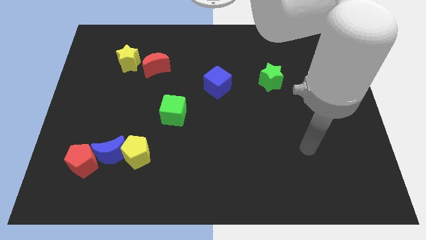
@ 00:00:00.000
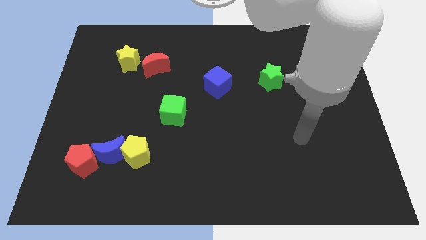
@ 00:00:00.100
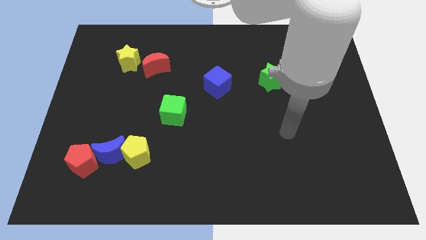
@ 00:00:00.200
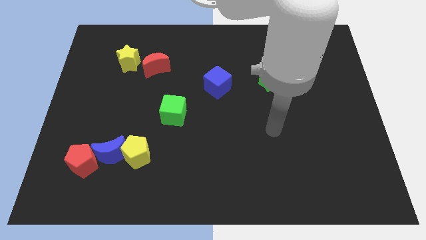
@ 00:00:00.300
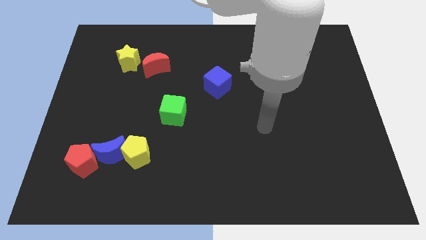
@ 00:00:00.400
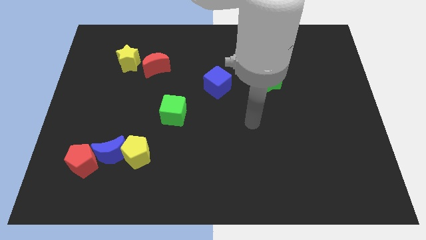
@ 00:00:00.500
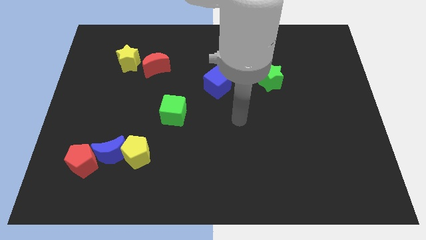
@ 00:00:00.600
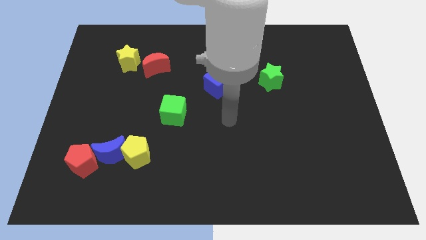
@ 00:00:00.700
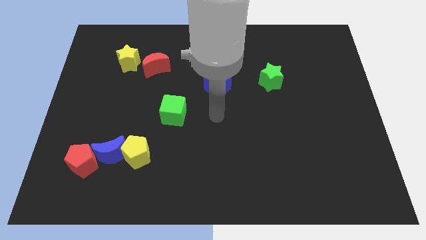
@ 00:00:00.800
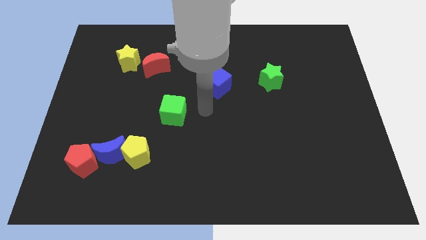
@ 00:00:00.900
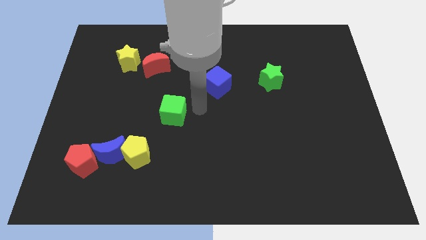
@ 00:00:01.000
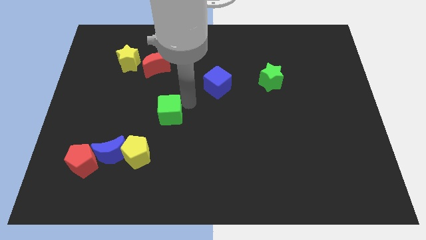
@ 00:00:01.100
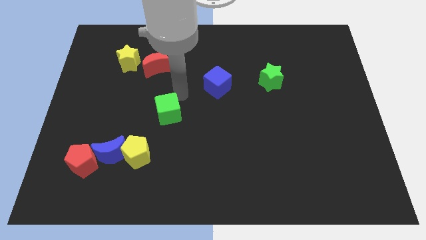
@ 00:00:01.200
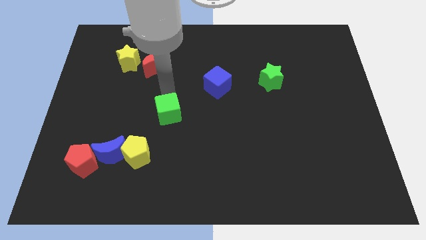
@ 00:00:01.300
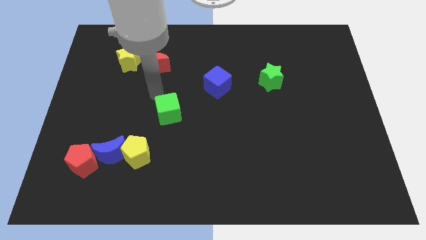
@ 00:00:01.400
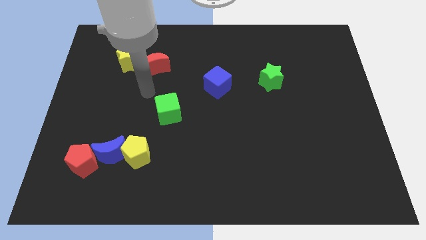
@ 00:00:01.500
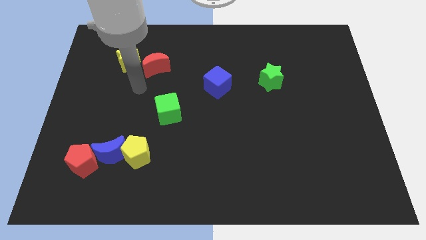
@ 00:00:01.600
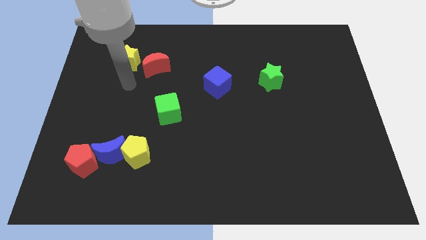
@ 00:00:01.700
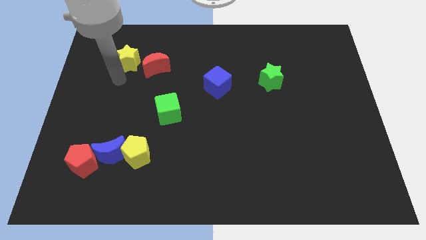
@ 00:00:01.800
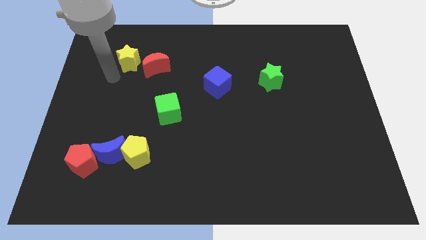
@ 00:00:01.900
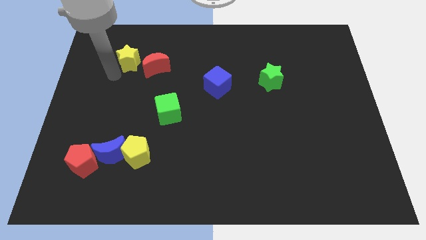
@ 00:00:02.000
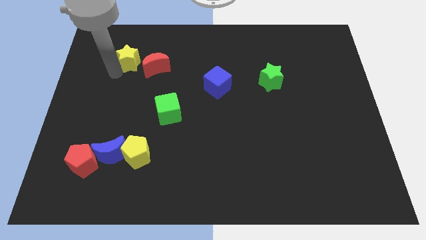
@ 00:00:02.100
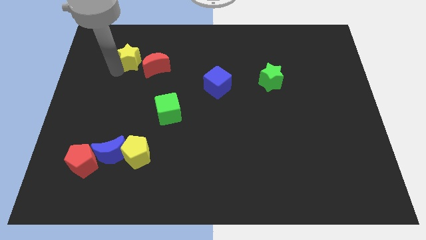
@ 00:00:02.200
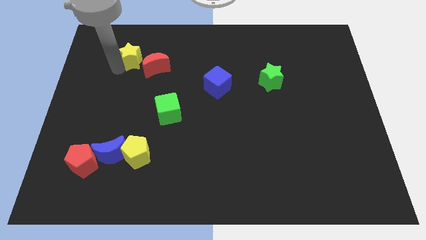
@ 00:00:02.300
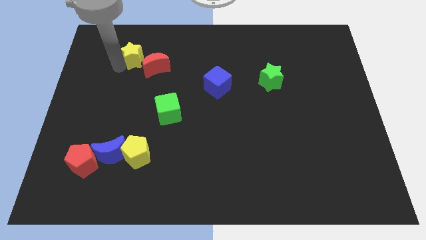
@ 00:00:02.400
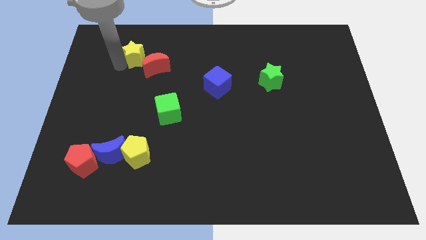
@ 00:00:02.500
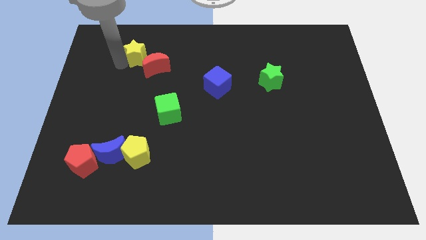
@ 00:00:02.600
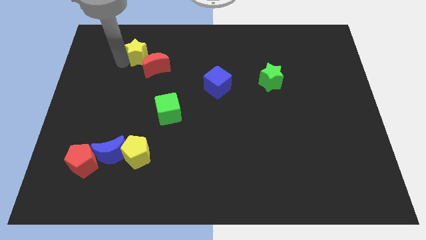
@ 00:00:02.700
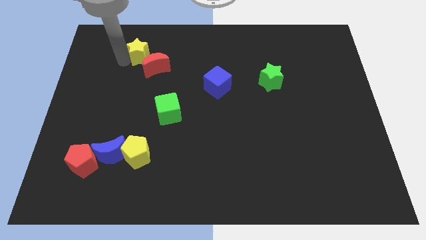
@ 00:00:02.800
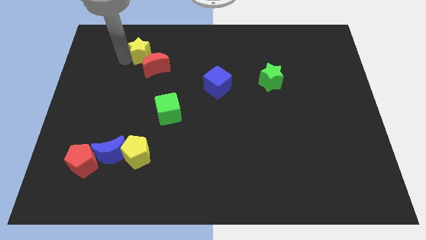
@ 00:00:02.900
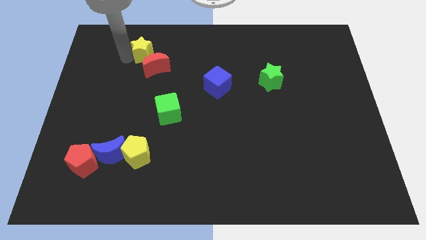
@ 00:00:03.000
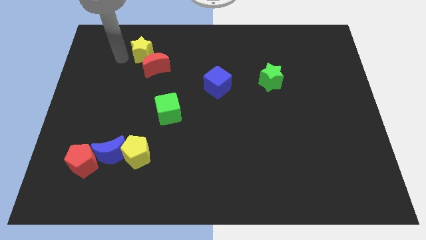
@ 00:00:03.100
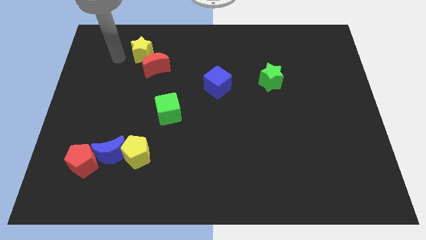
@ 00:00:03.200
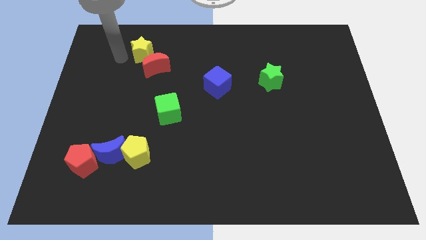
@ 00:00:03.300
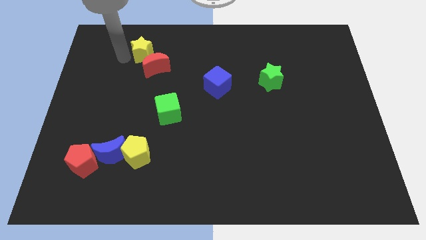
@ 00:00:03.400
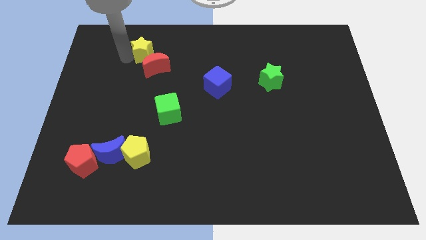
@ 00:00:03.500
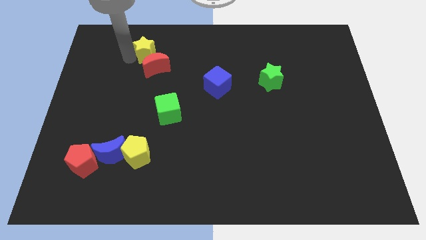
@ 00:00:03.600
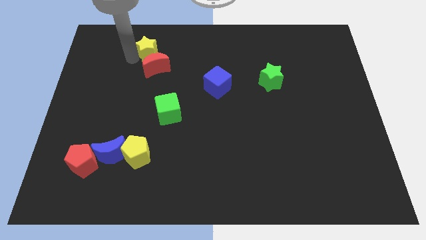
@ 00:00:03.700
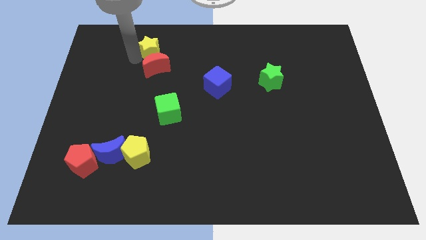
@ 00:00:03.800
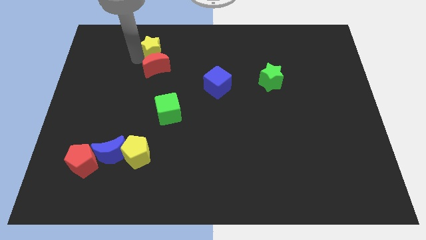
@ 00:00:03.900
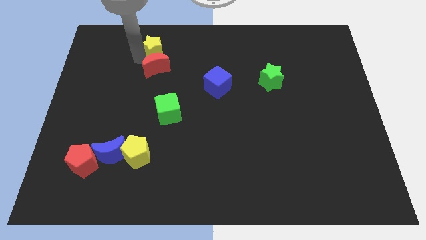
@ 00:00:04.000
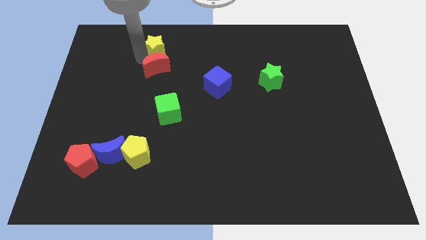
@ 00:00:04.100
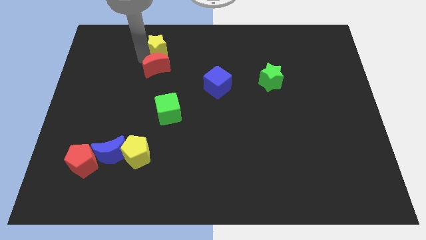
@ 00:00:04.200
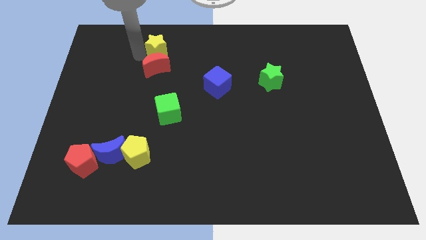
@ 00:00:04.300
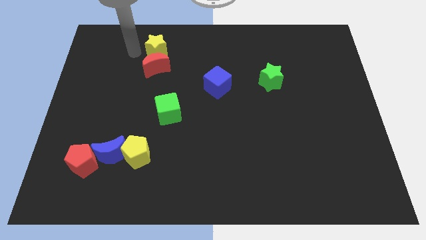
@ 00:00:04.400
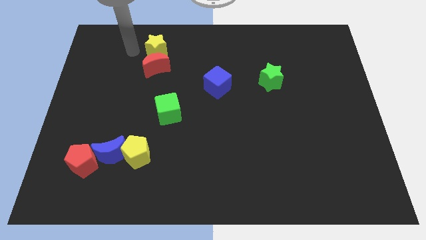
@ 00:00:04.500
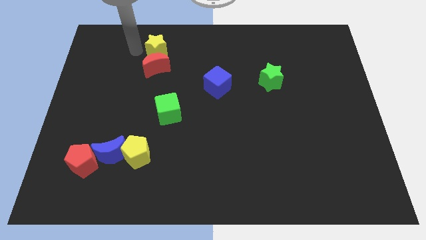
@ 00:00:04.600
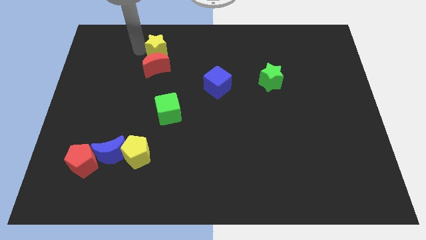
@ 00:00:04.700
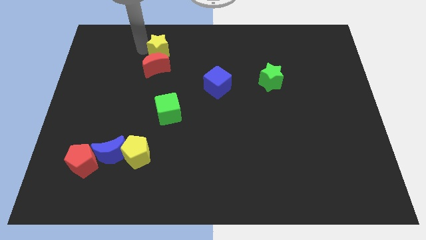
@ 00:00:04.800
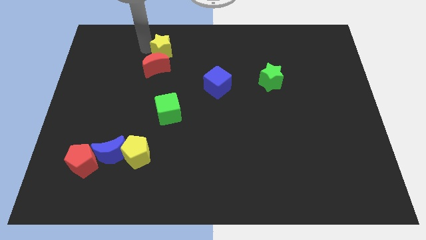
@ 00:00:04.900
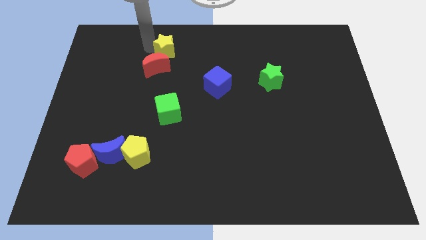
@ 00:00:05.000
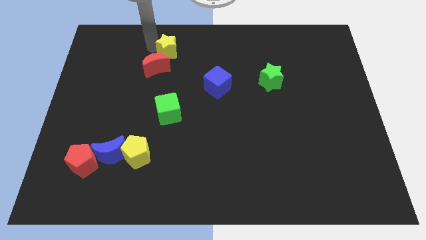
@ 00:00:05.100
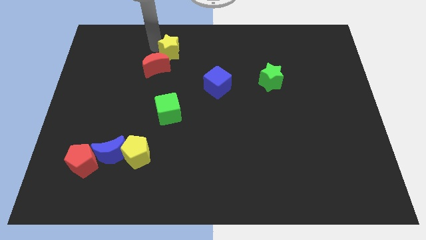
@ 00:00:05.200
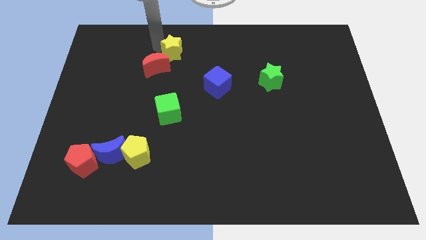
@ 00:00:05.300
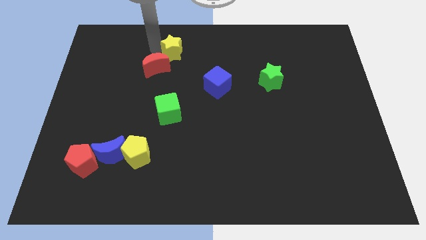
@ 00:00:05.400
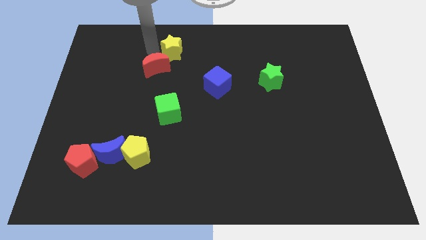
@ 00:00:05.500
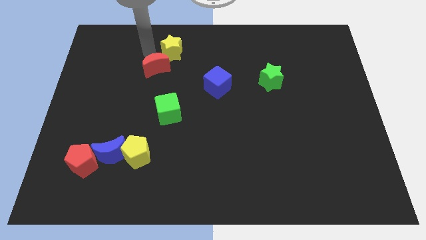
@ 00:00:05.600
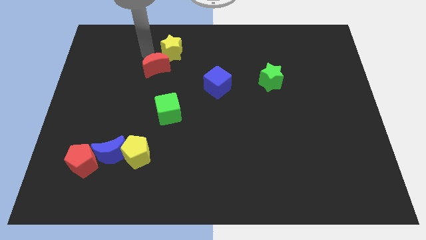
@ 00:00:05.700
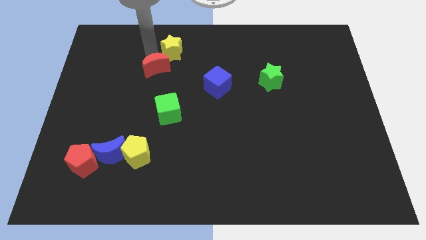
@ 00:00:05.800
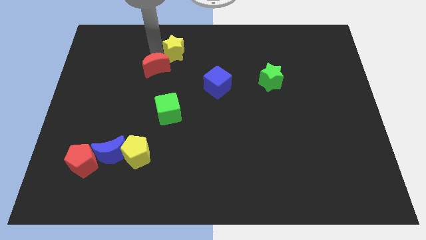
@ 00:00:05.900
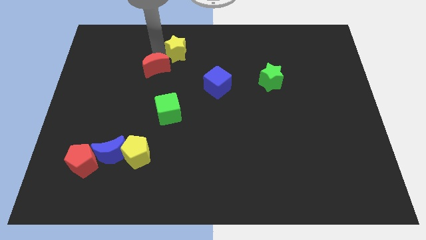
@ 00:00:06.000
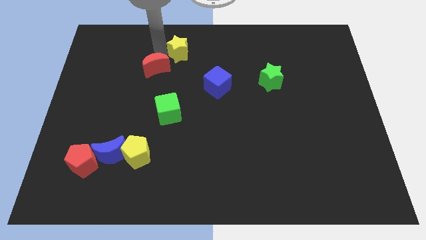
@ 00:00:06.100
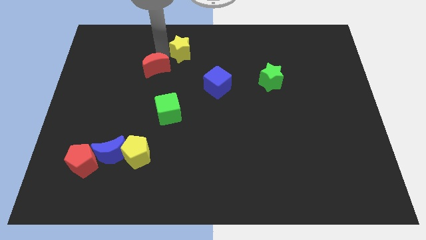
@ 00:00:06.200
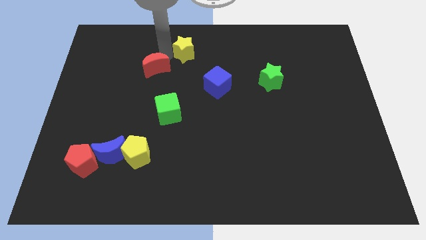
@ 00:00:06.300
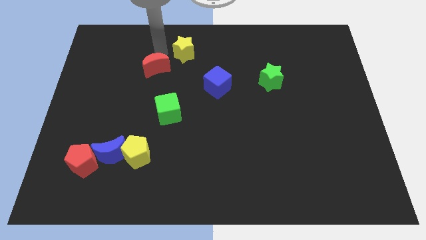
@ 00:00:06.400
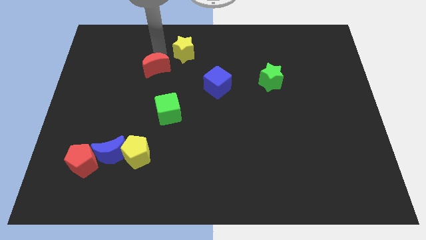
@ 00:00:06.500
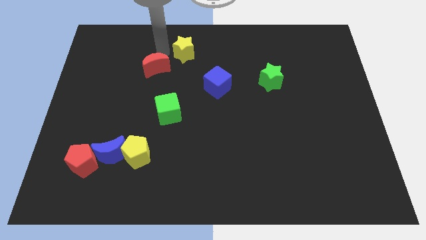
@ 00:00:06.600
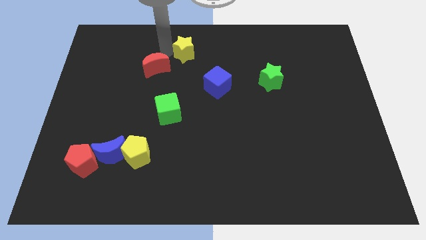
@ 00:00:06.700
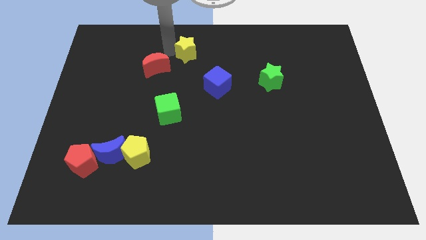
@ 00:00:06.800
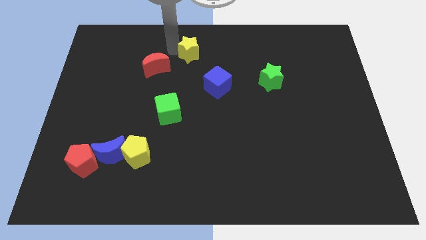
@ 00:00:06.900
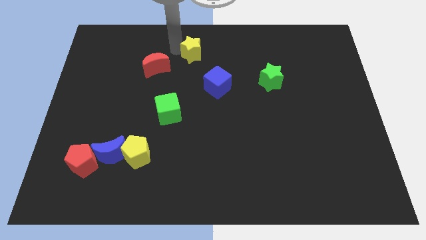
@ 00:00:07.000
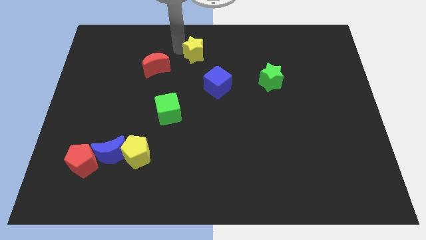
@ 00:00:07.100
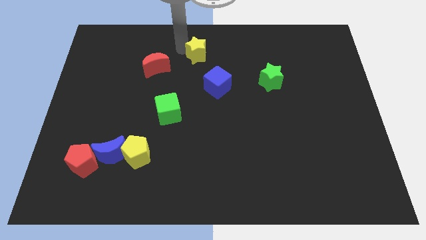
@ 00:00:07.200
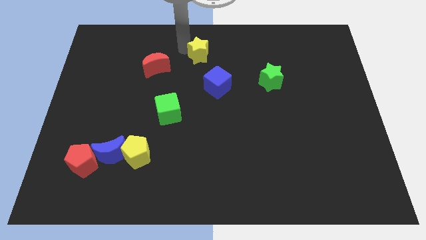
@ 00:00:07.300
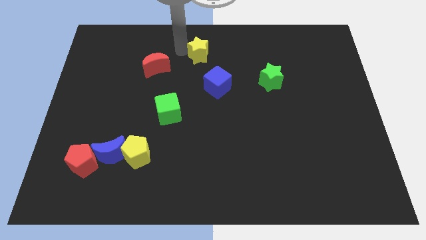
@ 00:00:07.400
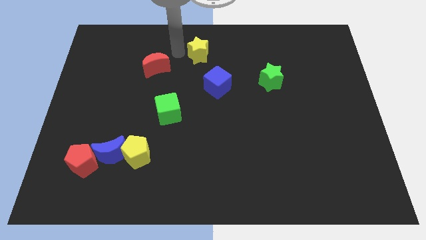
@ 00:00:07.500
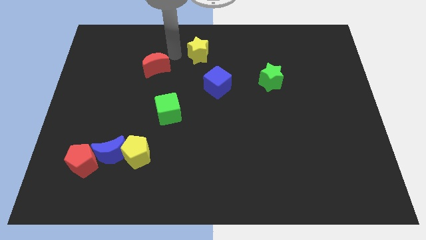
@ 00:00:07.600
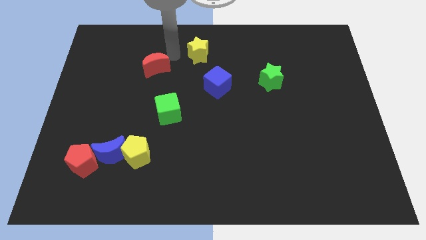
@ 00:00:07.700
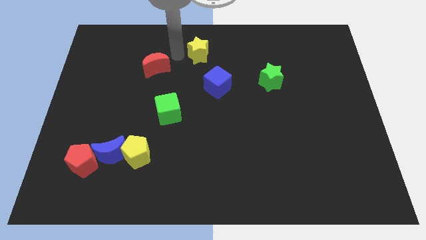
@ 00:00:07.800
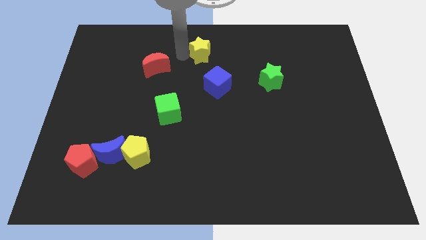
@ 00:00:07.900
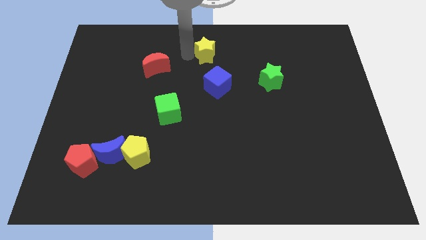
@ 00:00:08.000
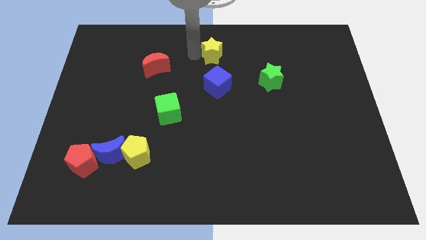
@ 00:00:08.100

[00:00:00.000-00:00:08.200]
slide the yellow star to the right
